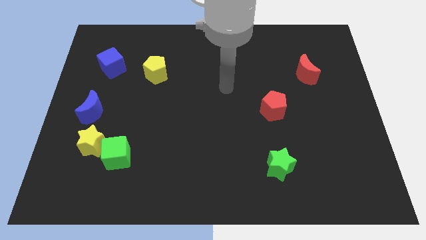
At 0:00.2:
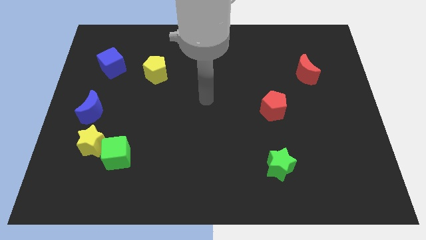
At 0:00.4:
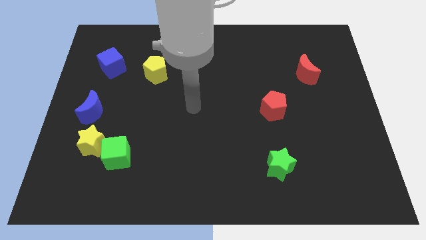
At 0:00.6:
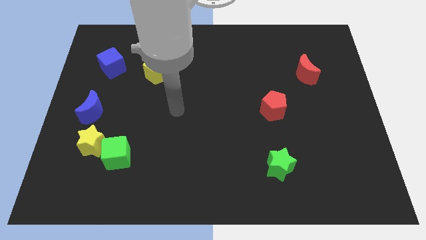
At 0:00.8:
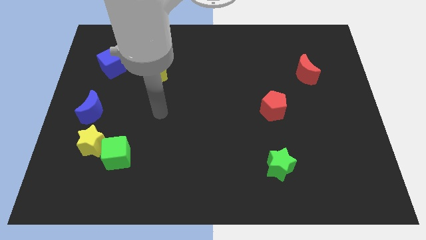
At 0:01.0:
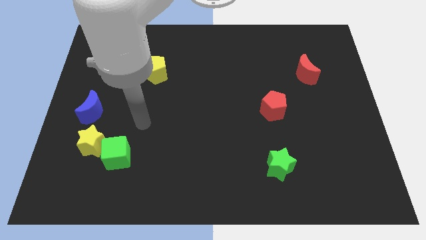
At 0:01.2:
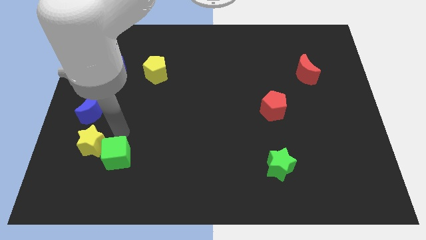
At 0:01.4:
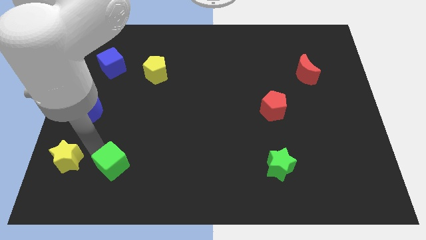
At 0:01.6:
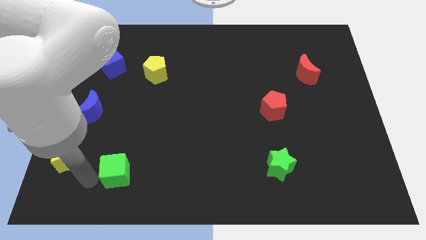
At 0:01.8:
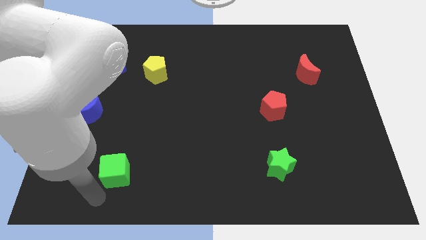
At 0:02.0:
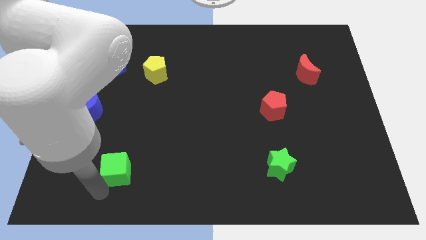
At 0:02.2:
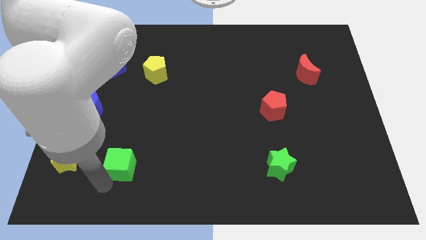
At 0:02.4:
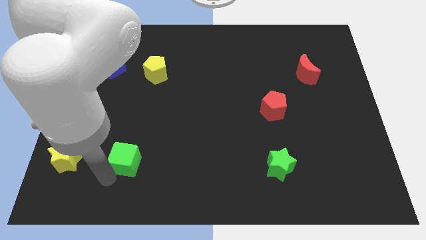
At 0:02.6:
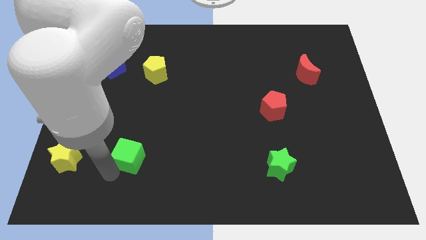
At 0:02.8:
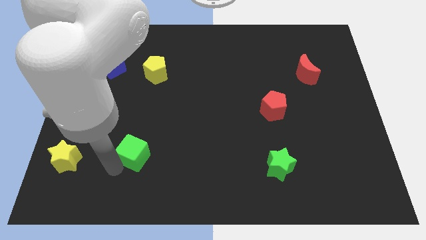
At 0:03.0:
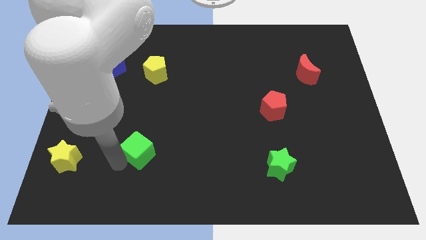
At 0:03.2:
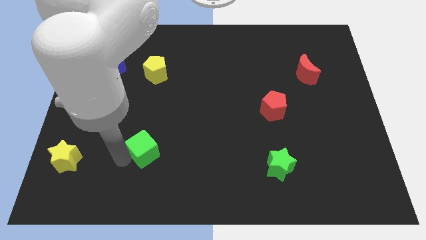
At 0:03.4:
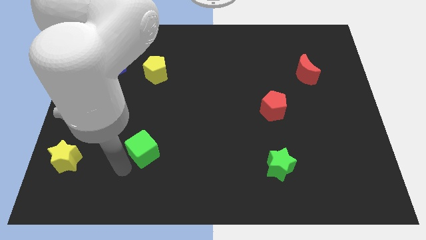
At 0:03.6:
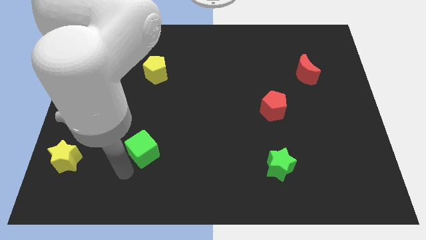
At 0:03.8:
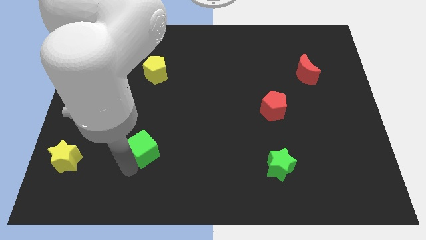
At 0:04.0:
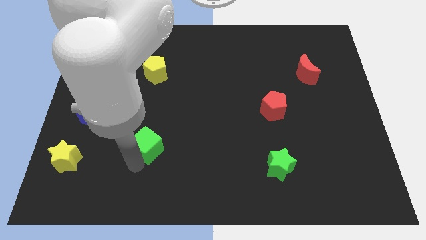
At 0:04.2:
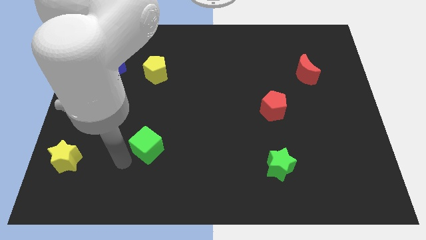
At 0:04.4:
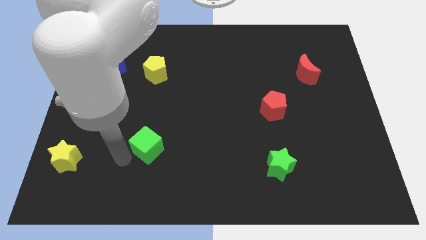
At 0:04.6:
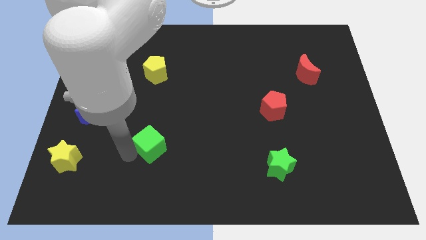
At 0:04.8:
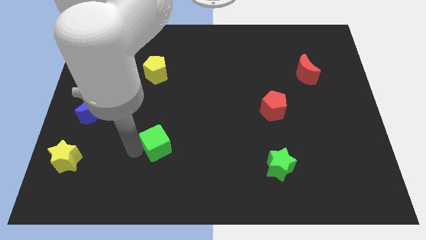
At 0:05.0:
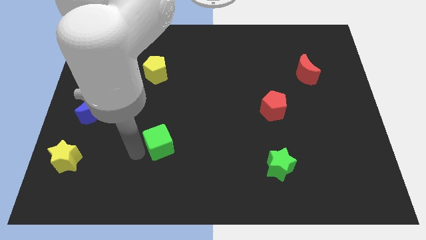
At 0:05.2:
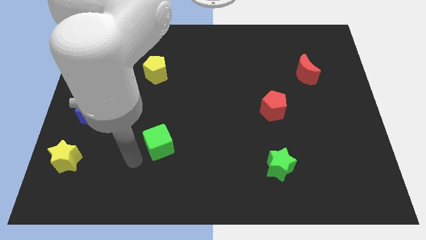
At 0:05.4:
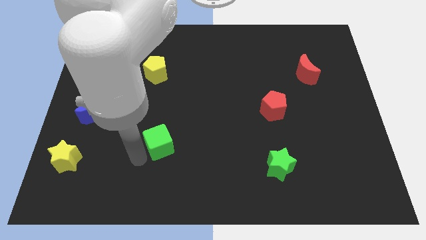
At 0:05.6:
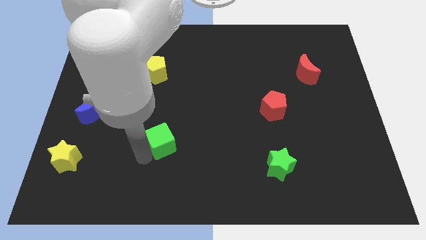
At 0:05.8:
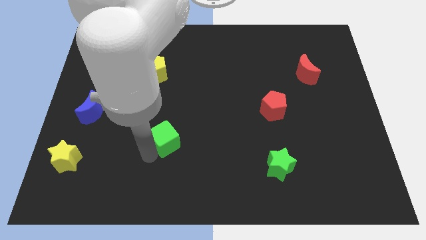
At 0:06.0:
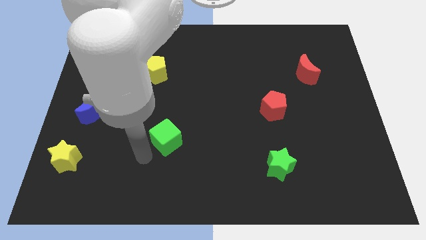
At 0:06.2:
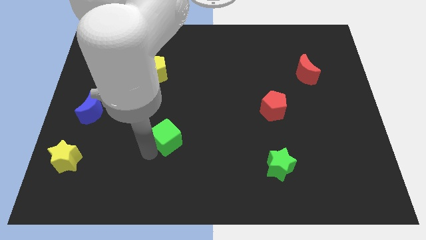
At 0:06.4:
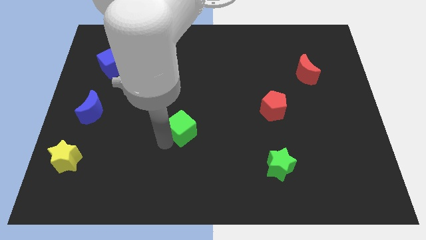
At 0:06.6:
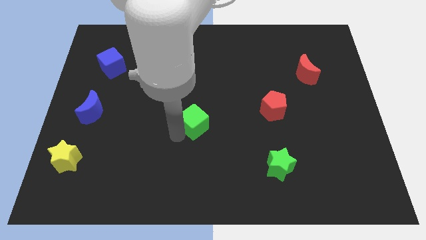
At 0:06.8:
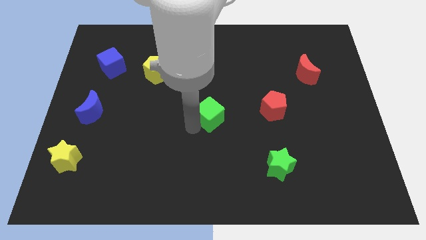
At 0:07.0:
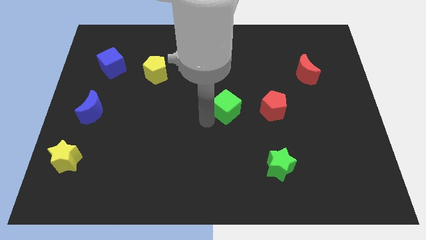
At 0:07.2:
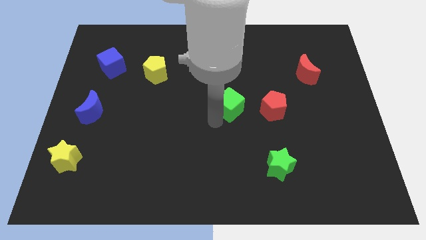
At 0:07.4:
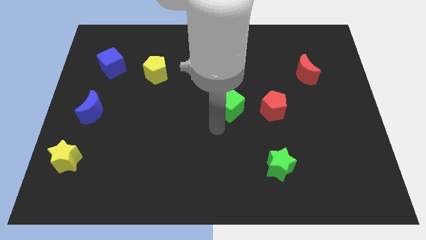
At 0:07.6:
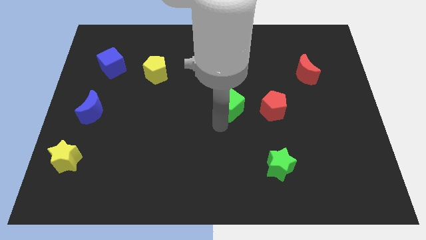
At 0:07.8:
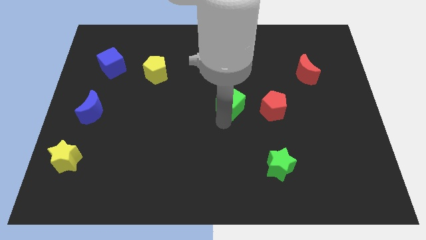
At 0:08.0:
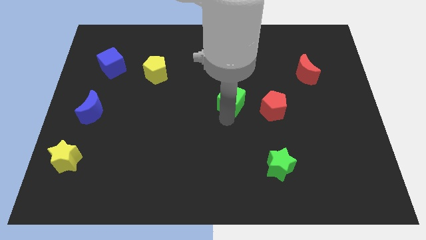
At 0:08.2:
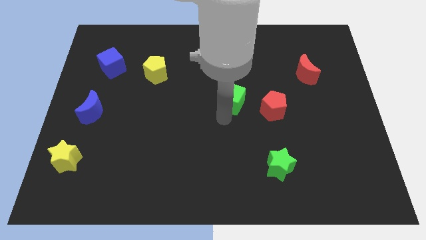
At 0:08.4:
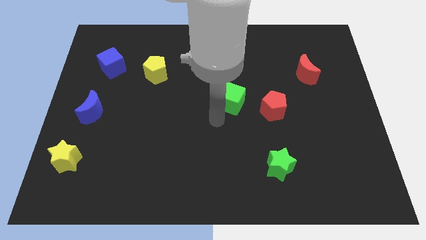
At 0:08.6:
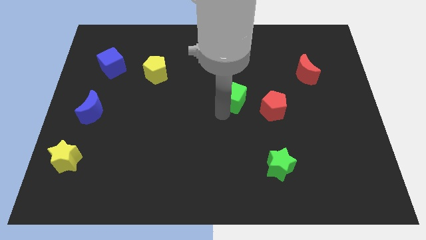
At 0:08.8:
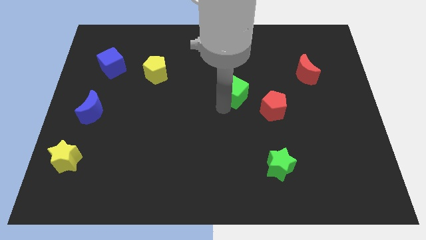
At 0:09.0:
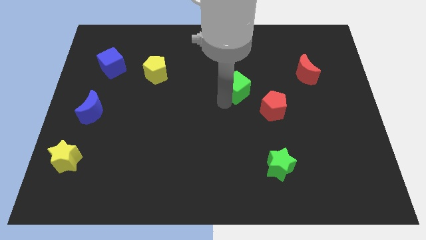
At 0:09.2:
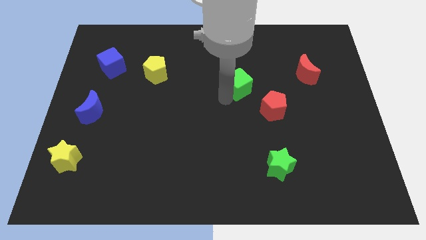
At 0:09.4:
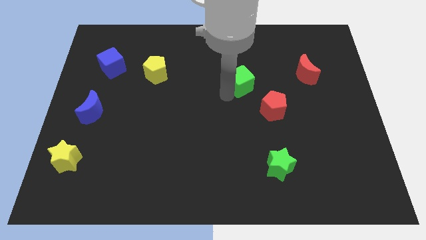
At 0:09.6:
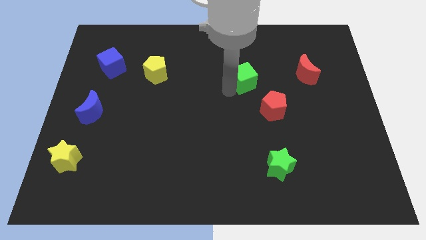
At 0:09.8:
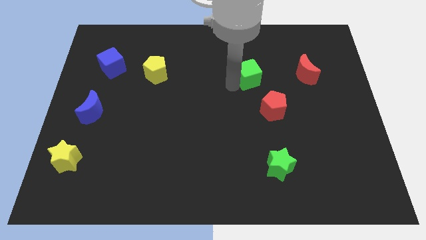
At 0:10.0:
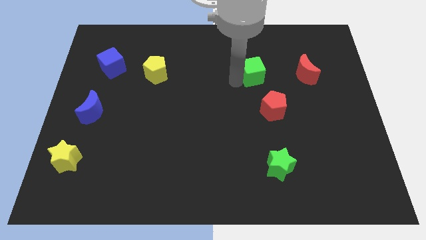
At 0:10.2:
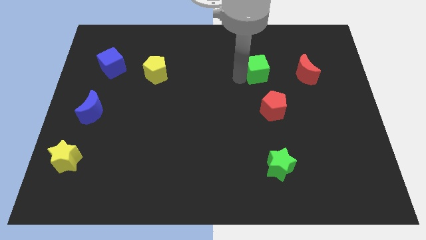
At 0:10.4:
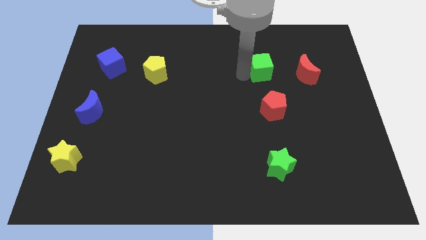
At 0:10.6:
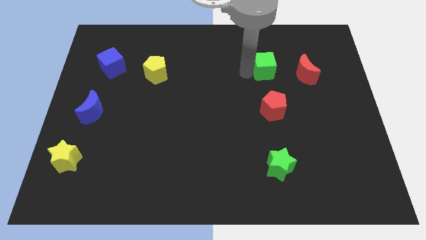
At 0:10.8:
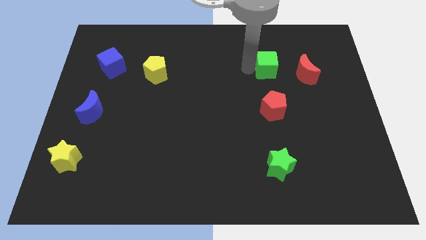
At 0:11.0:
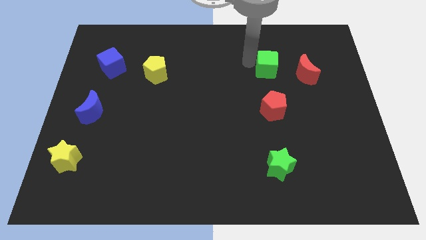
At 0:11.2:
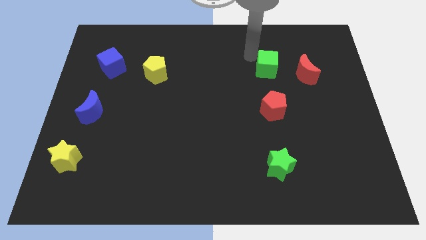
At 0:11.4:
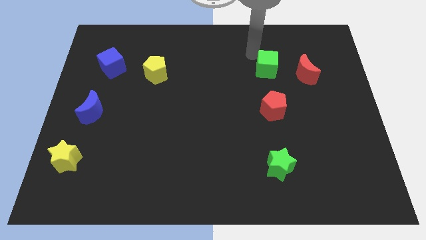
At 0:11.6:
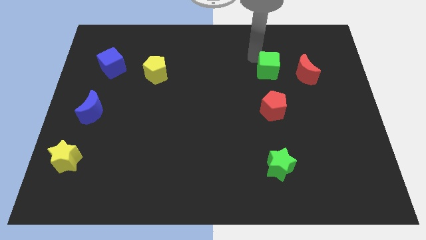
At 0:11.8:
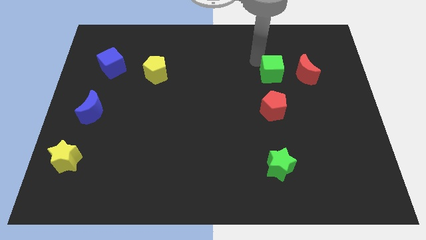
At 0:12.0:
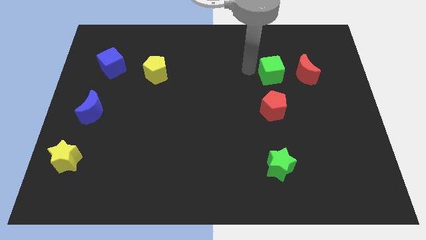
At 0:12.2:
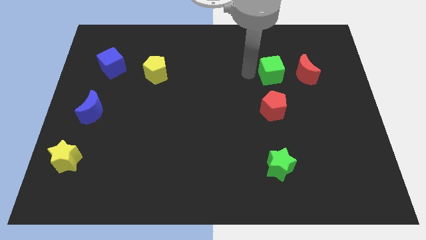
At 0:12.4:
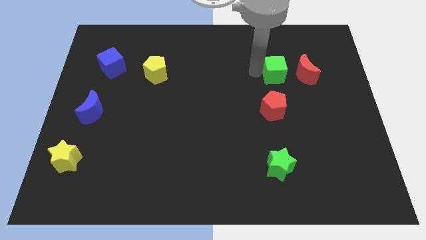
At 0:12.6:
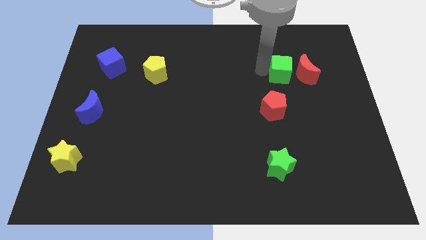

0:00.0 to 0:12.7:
move the green cube towards the red moon

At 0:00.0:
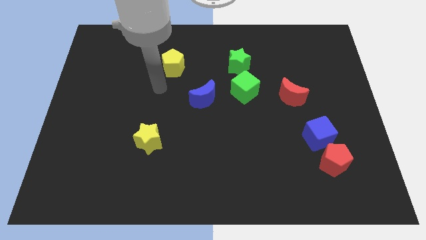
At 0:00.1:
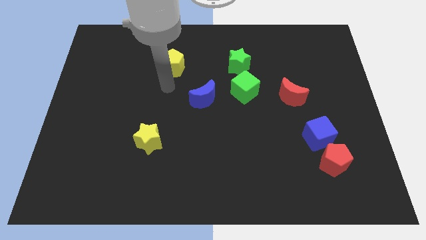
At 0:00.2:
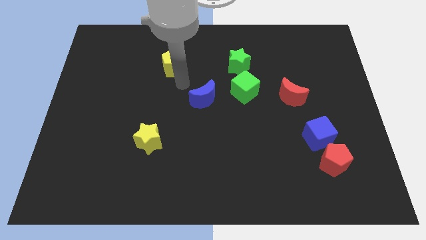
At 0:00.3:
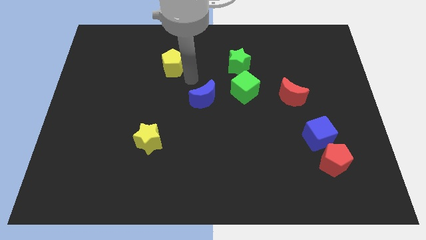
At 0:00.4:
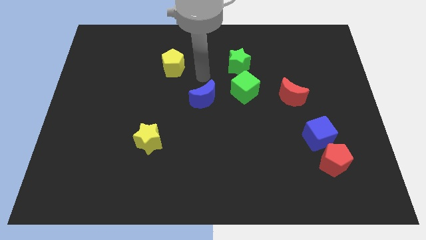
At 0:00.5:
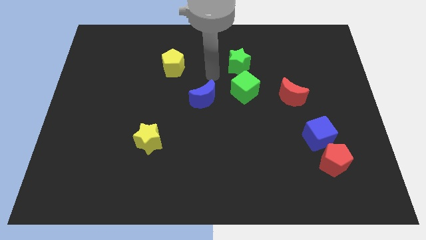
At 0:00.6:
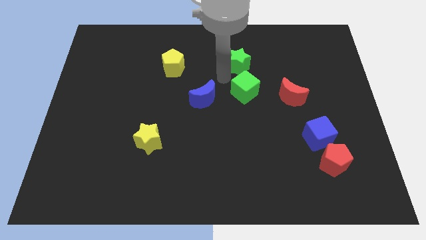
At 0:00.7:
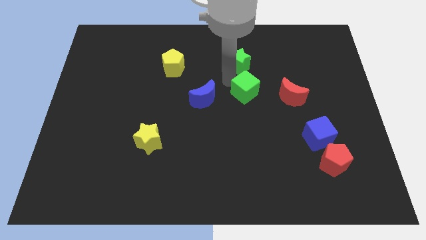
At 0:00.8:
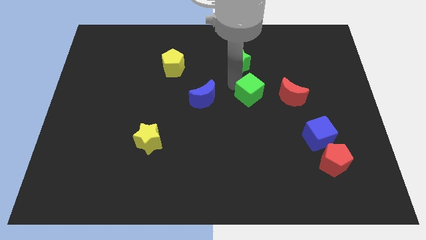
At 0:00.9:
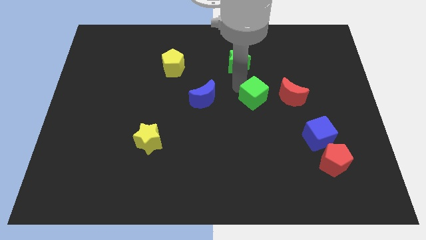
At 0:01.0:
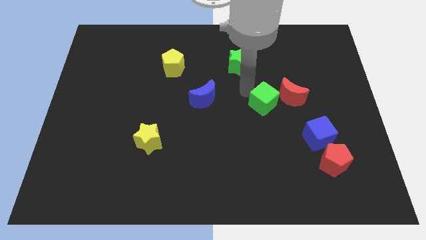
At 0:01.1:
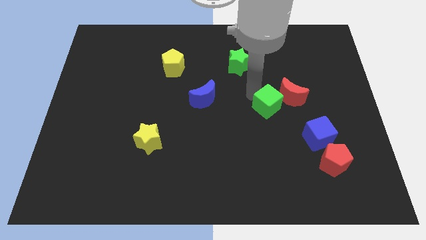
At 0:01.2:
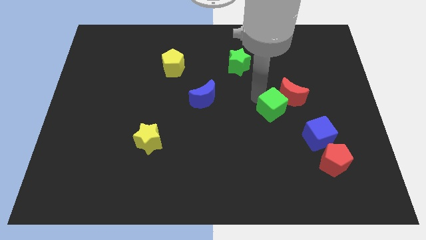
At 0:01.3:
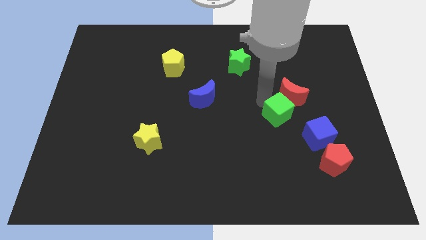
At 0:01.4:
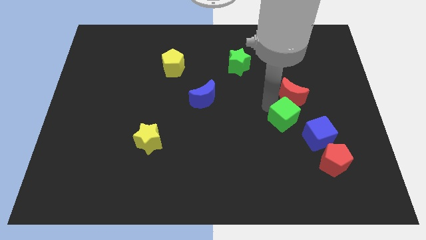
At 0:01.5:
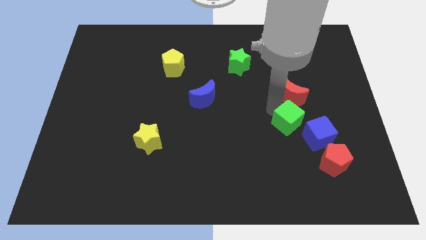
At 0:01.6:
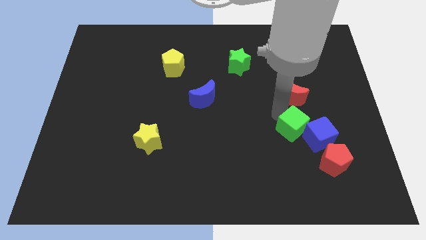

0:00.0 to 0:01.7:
move the green cube next to the blue cube
